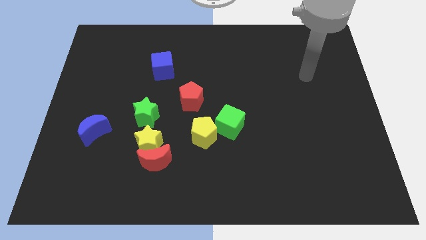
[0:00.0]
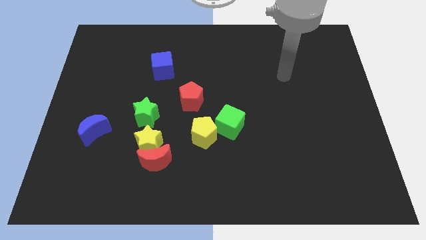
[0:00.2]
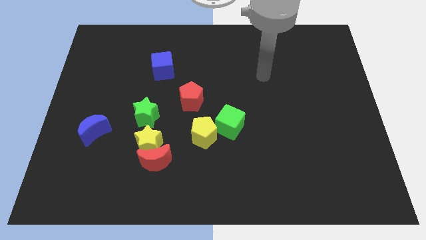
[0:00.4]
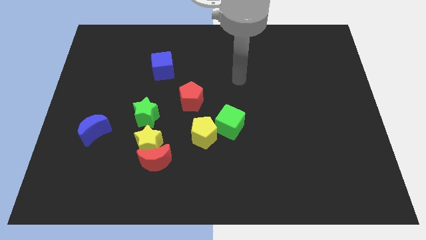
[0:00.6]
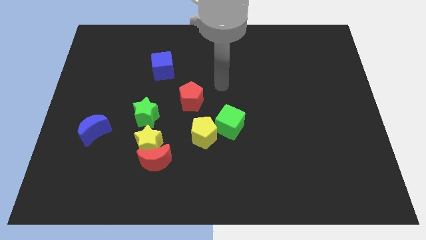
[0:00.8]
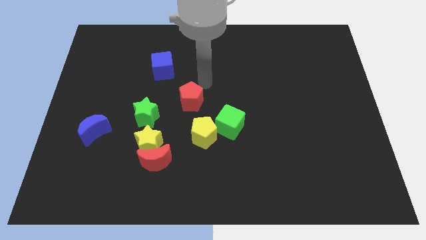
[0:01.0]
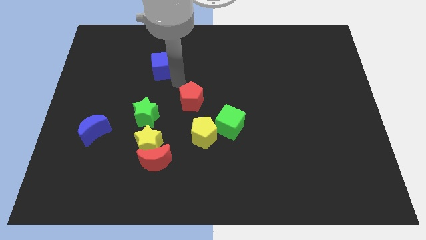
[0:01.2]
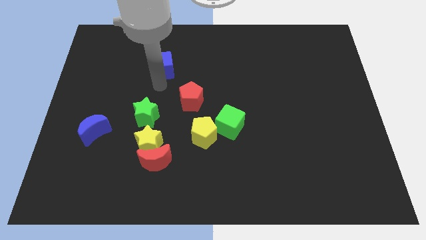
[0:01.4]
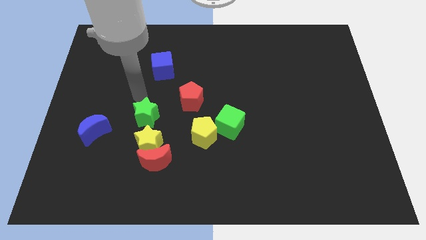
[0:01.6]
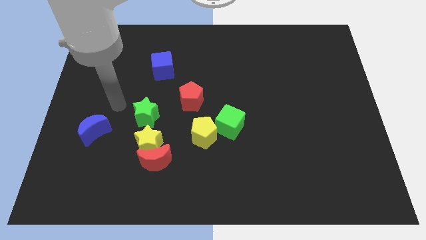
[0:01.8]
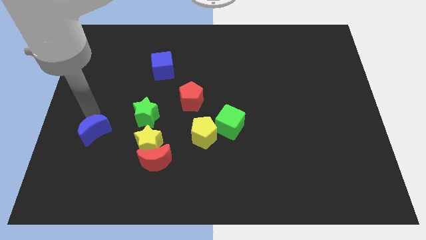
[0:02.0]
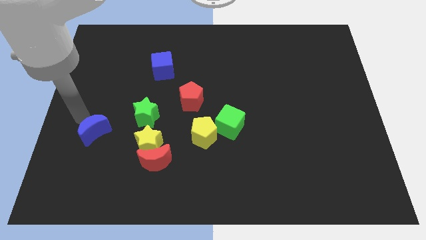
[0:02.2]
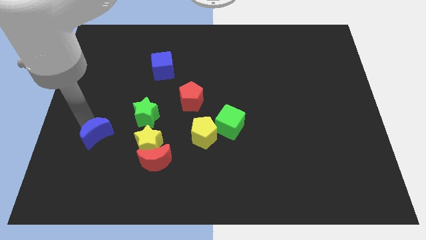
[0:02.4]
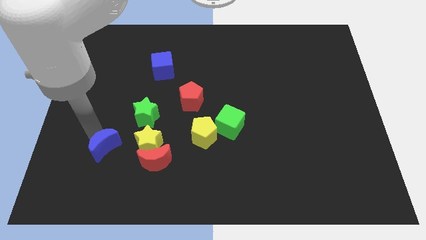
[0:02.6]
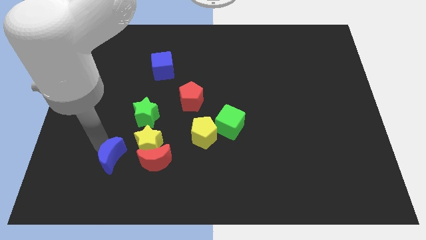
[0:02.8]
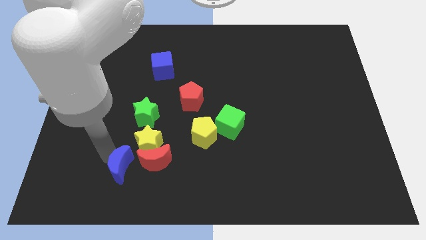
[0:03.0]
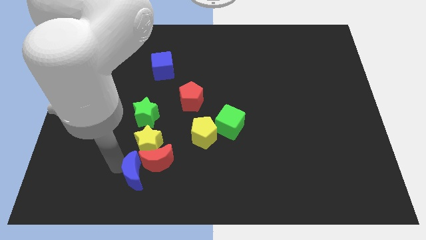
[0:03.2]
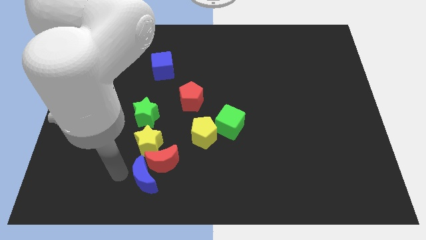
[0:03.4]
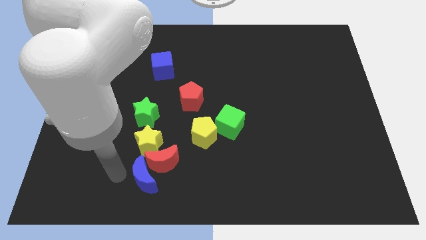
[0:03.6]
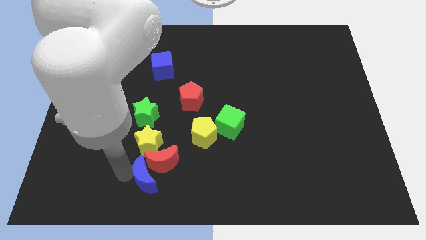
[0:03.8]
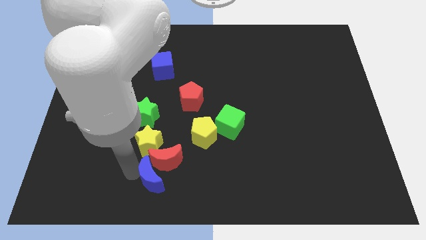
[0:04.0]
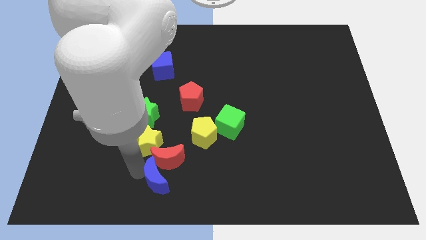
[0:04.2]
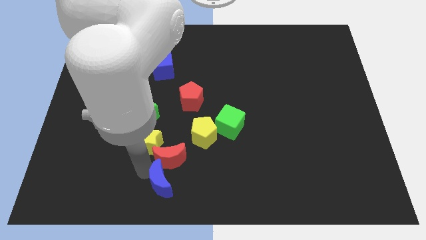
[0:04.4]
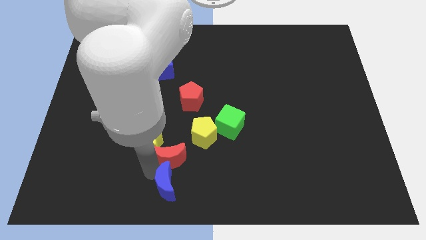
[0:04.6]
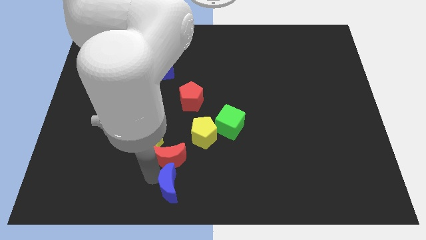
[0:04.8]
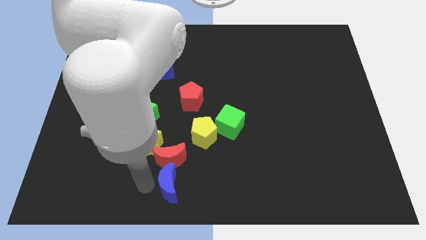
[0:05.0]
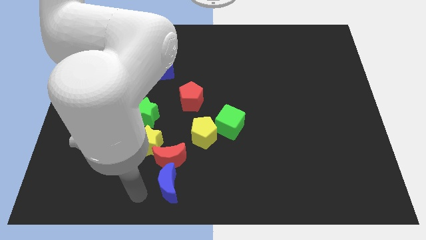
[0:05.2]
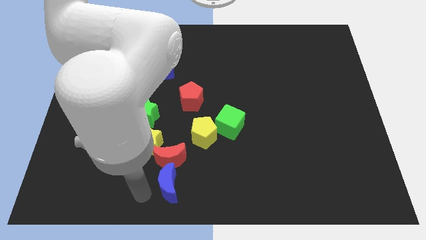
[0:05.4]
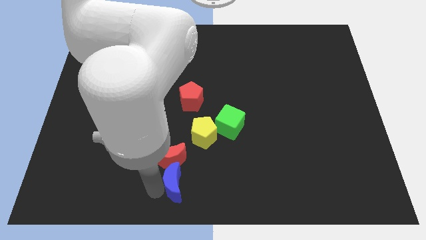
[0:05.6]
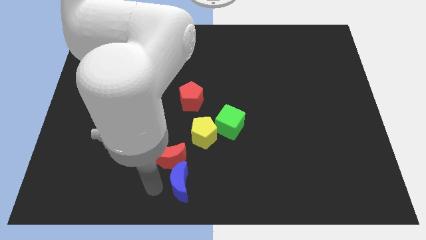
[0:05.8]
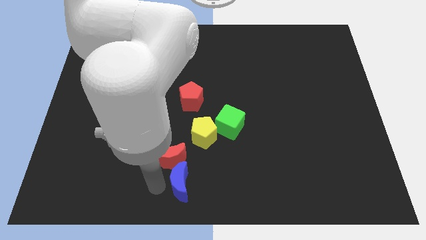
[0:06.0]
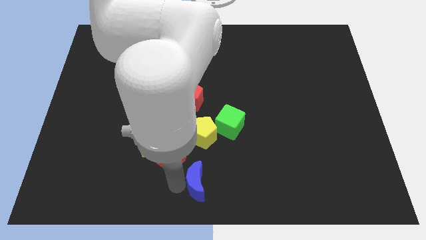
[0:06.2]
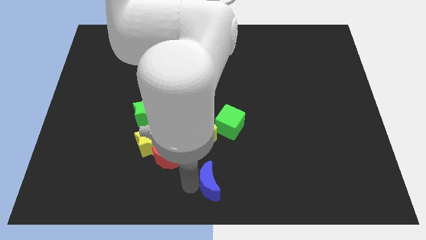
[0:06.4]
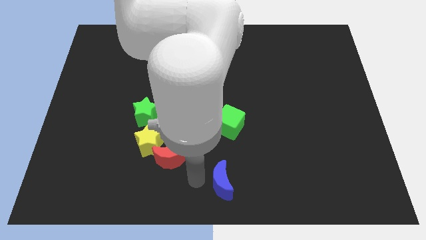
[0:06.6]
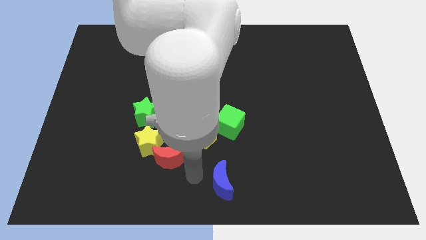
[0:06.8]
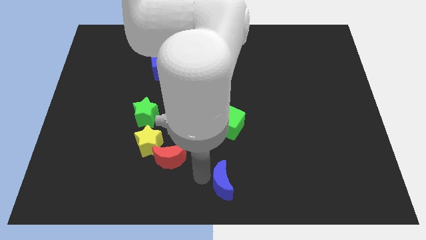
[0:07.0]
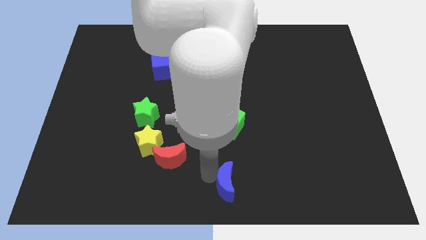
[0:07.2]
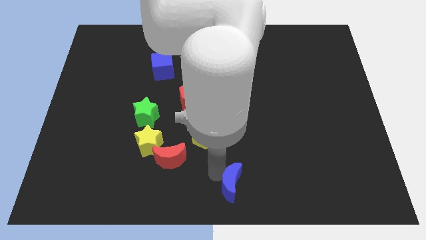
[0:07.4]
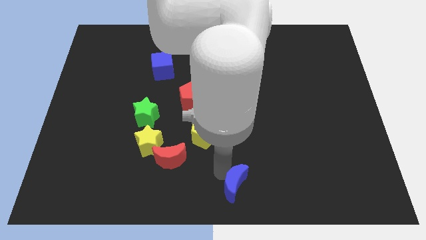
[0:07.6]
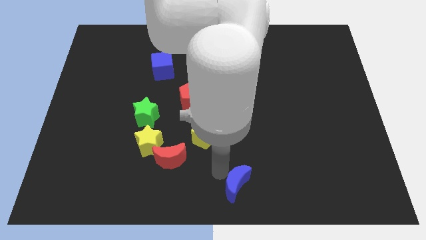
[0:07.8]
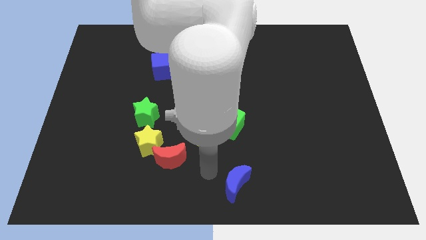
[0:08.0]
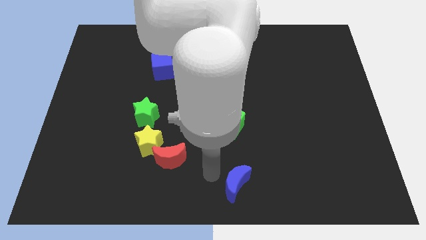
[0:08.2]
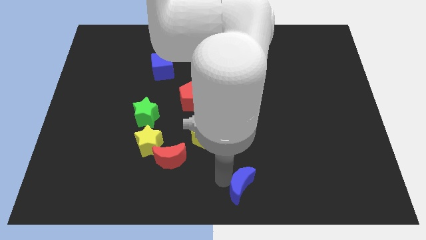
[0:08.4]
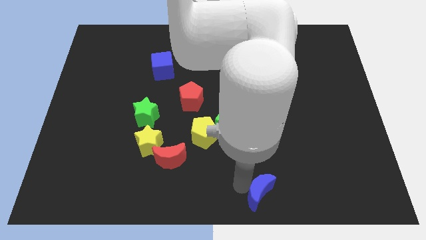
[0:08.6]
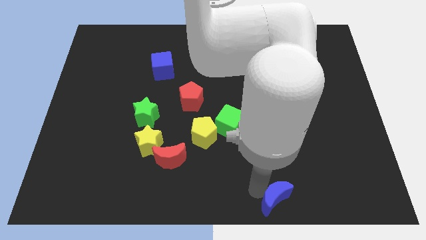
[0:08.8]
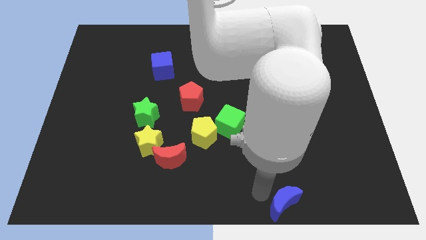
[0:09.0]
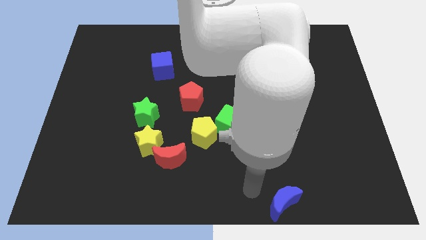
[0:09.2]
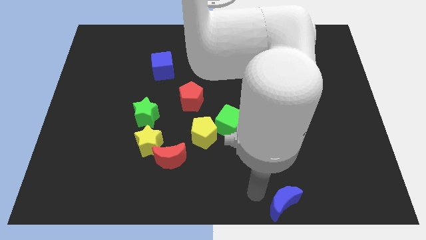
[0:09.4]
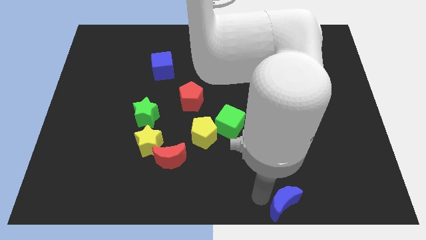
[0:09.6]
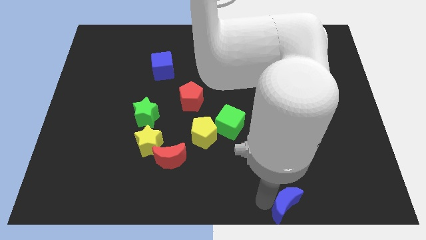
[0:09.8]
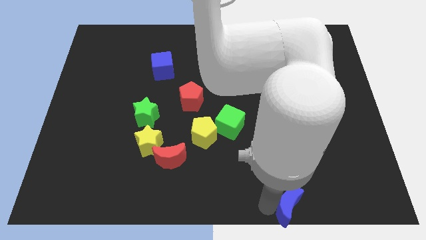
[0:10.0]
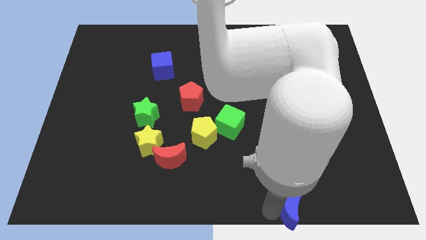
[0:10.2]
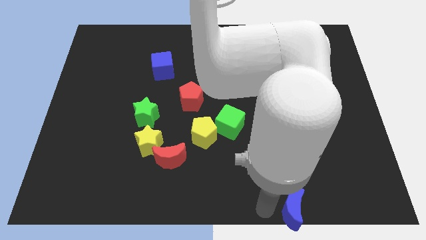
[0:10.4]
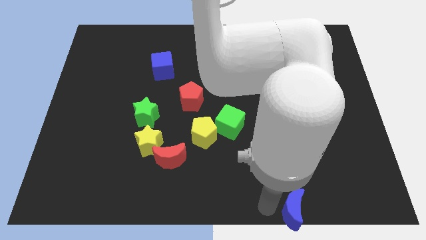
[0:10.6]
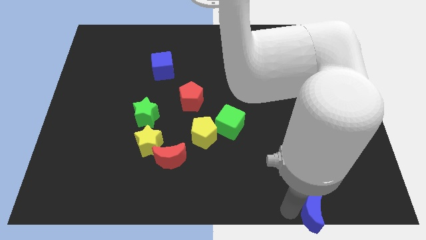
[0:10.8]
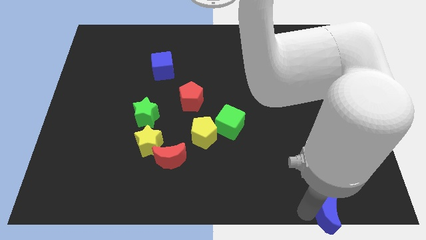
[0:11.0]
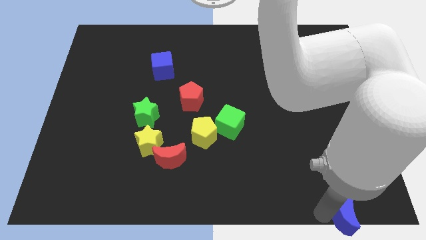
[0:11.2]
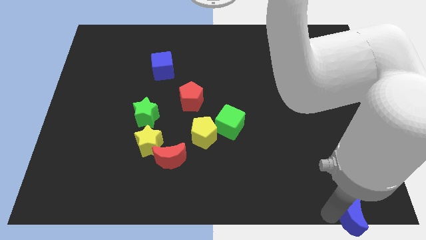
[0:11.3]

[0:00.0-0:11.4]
put the blue moon to the bottom right corner
